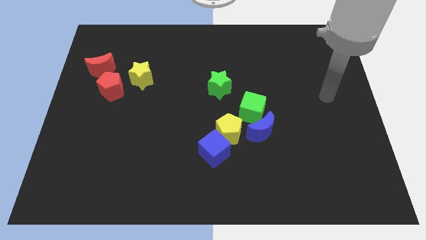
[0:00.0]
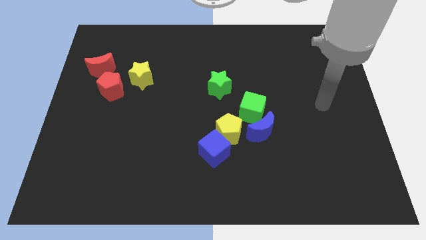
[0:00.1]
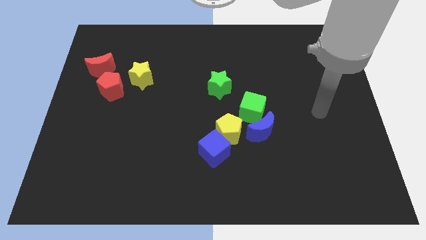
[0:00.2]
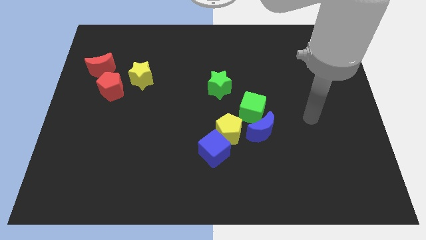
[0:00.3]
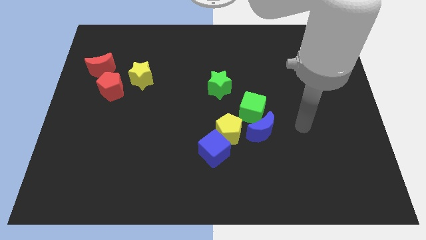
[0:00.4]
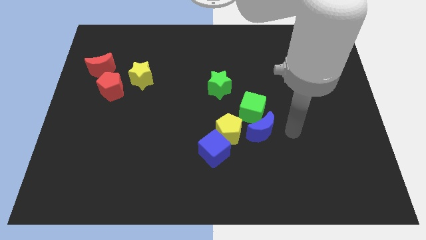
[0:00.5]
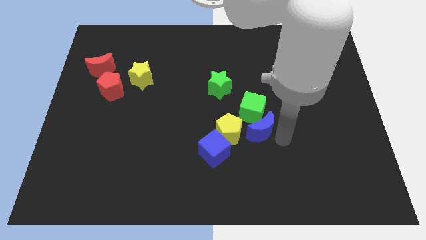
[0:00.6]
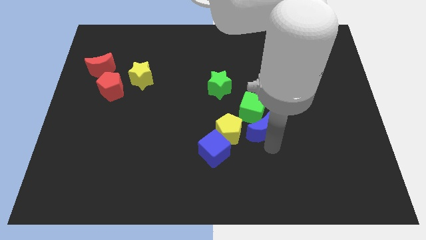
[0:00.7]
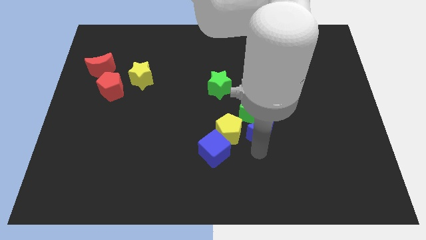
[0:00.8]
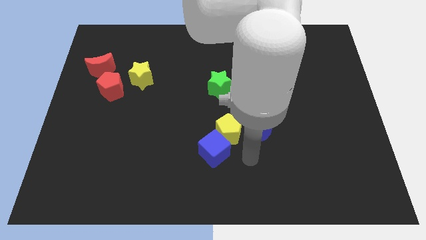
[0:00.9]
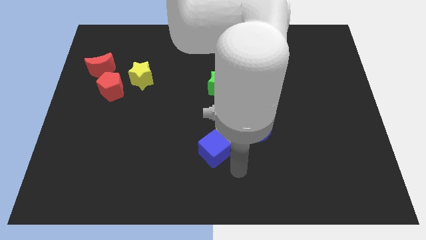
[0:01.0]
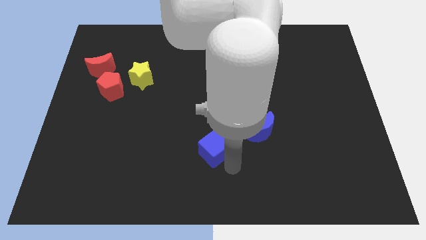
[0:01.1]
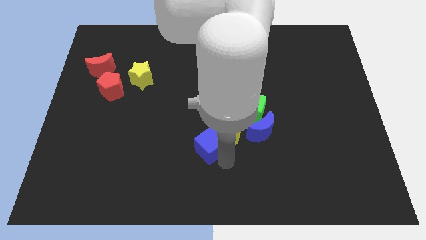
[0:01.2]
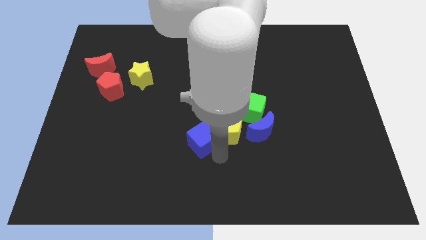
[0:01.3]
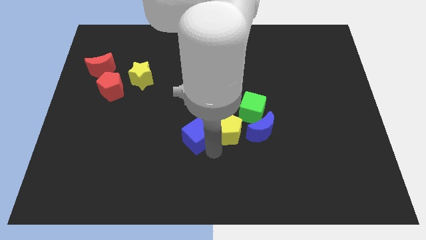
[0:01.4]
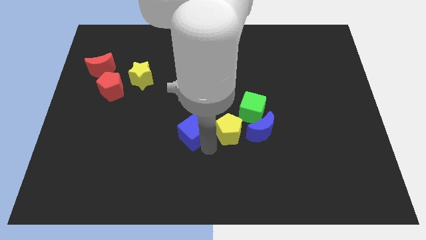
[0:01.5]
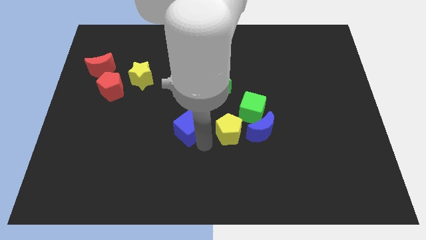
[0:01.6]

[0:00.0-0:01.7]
slightly slide the blue cube upwards and then to the left

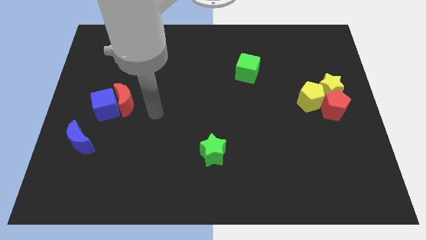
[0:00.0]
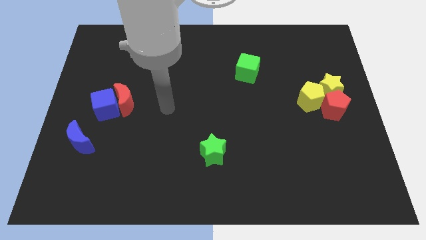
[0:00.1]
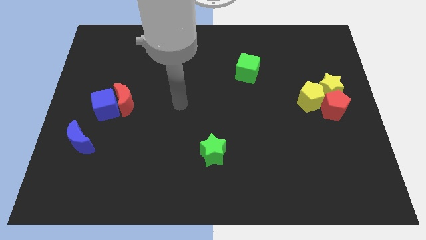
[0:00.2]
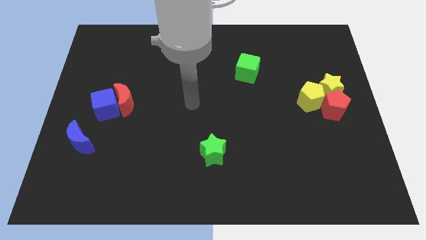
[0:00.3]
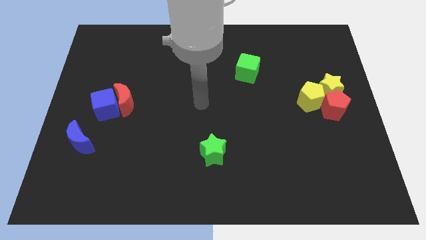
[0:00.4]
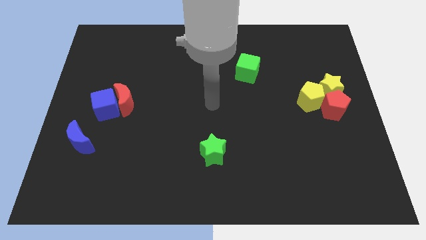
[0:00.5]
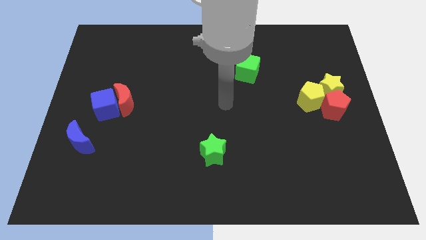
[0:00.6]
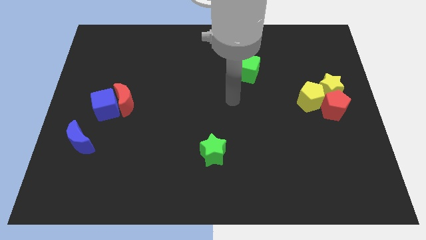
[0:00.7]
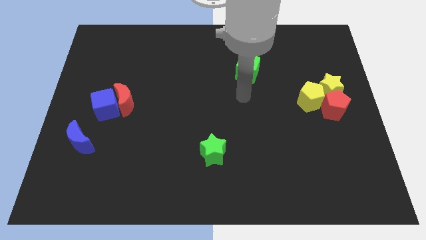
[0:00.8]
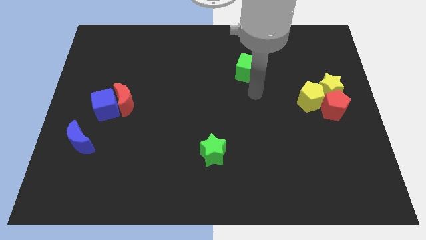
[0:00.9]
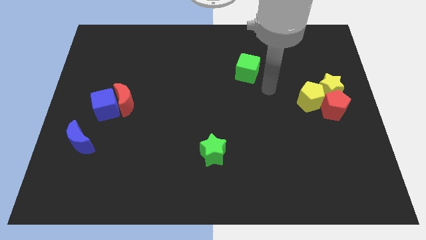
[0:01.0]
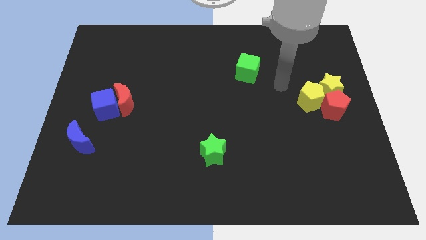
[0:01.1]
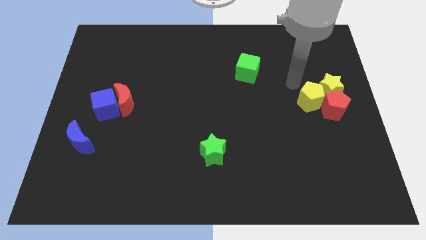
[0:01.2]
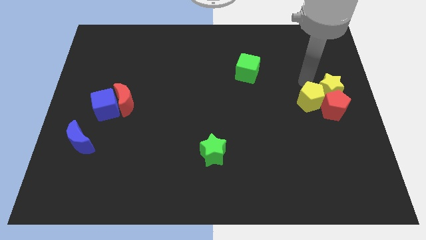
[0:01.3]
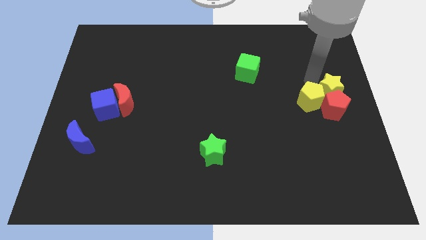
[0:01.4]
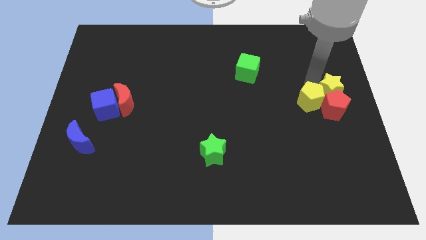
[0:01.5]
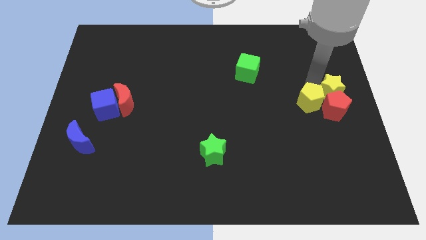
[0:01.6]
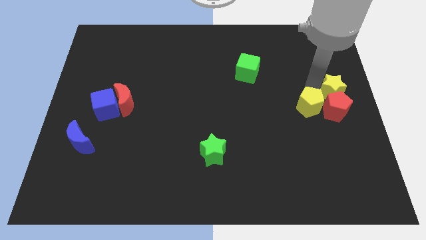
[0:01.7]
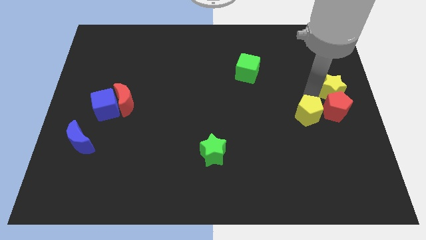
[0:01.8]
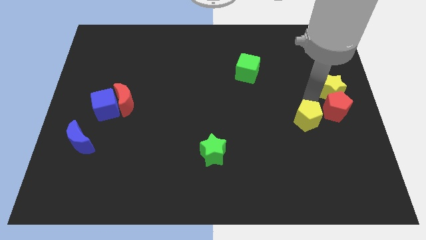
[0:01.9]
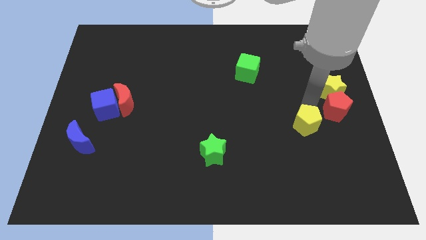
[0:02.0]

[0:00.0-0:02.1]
slide the yellow pentagon a little bit downwards

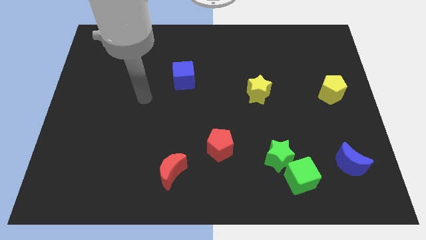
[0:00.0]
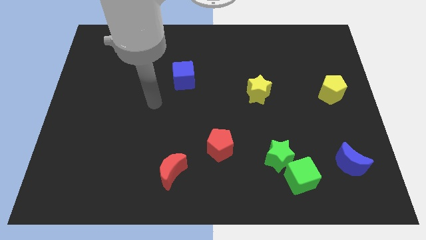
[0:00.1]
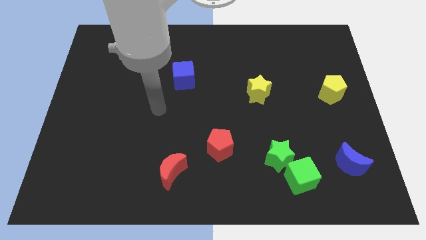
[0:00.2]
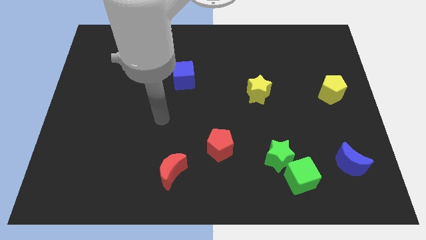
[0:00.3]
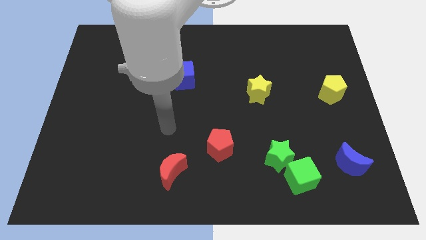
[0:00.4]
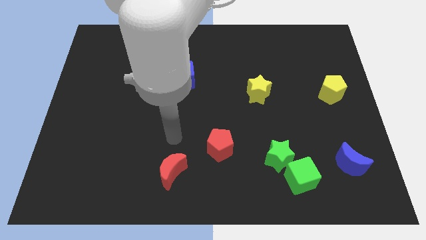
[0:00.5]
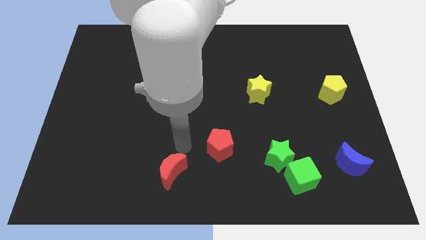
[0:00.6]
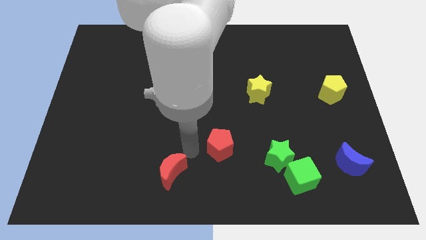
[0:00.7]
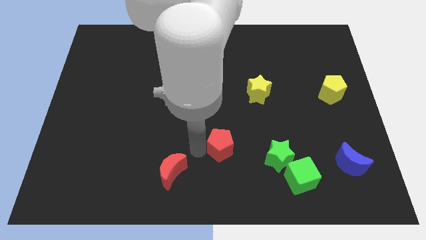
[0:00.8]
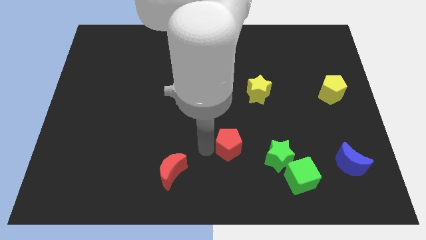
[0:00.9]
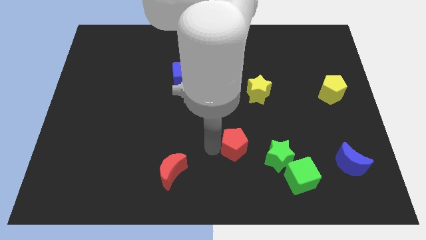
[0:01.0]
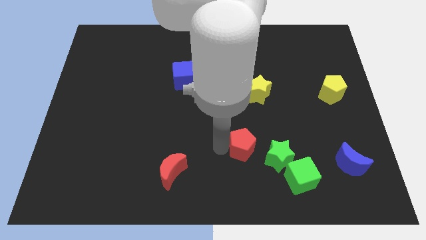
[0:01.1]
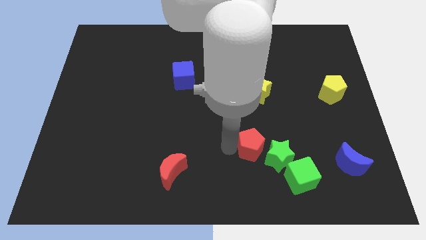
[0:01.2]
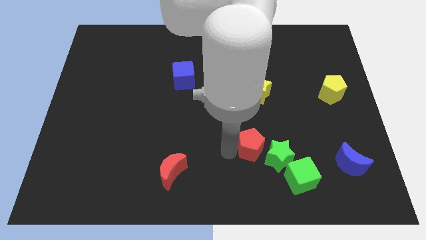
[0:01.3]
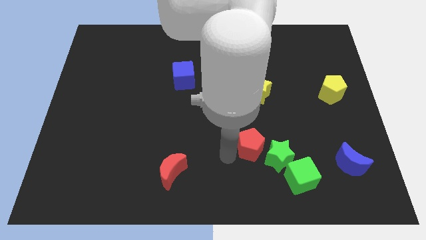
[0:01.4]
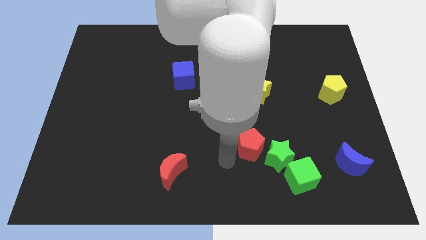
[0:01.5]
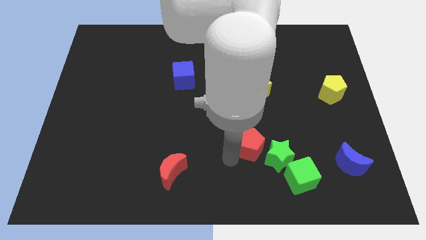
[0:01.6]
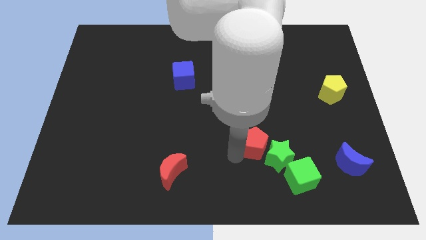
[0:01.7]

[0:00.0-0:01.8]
move the red pentagon a bit to the right

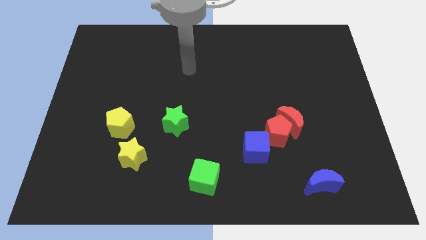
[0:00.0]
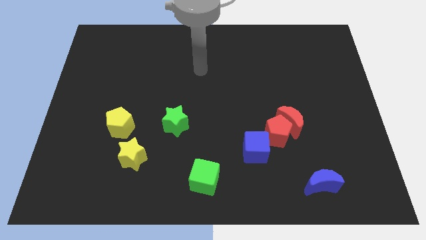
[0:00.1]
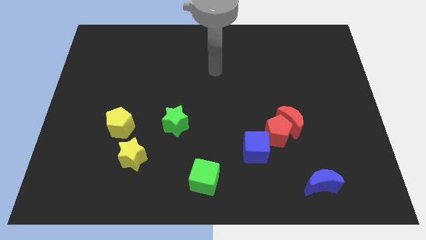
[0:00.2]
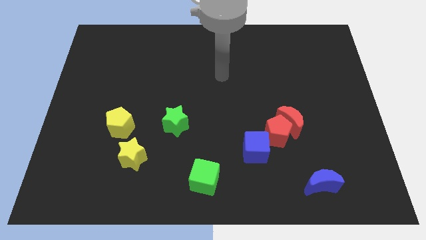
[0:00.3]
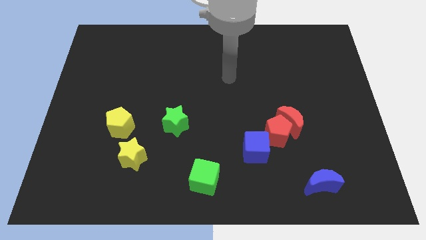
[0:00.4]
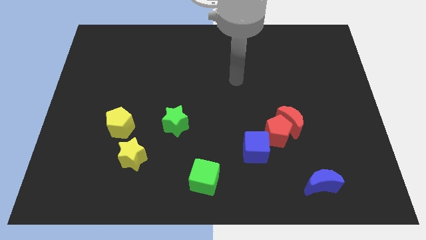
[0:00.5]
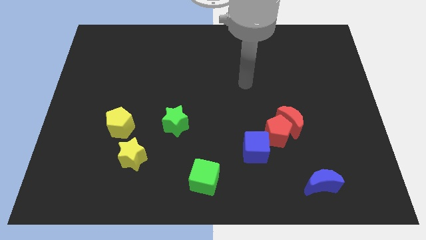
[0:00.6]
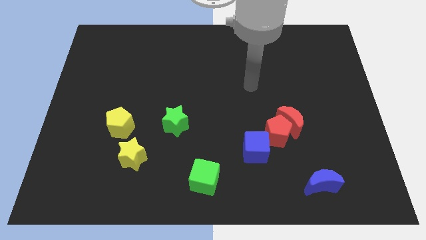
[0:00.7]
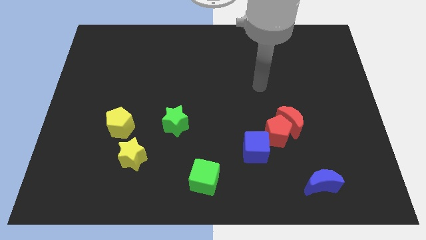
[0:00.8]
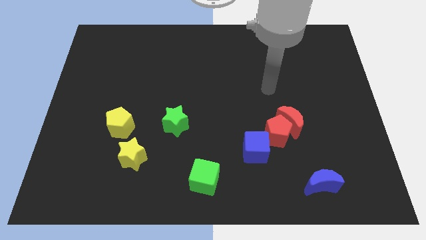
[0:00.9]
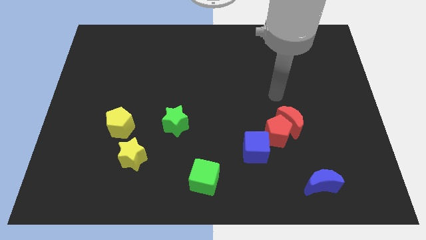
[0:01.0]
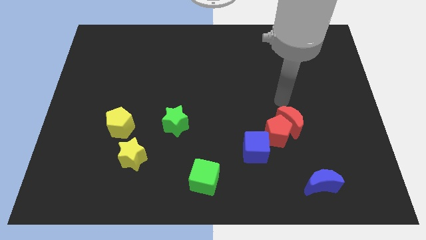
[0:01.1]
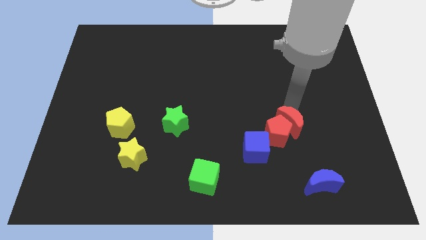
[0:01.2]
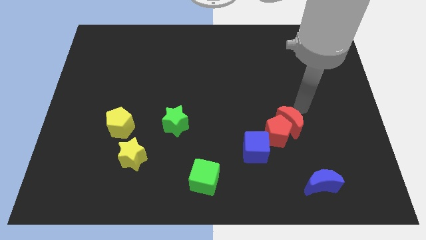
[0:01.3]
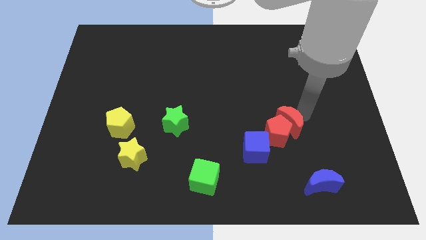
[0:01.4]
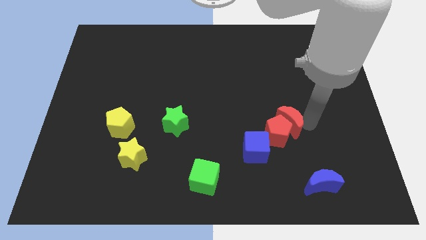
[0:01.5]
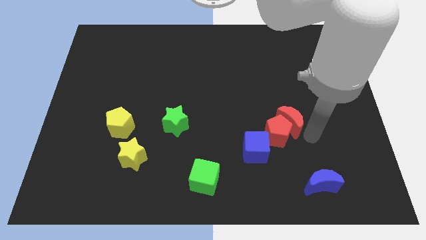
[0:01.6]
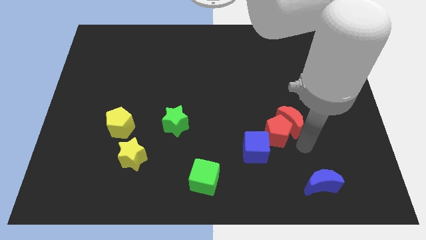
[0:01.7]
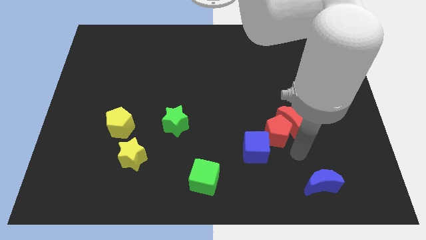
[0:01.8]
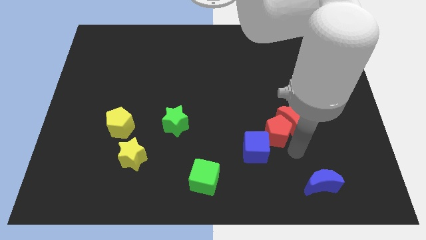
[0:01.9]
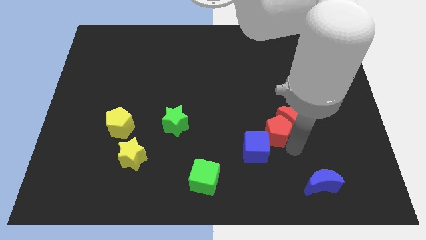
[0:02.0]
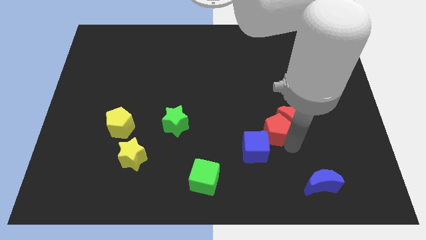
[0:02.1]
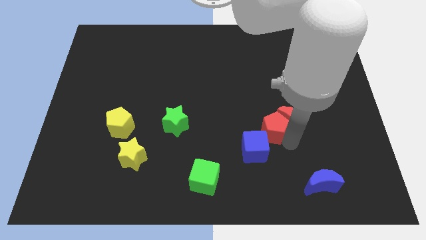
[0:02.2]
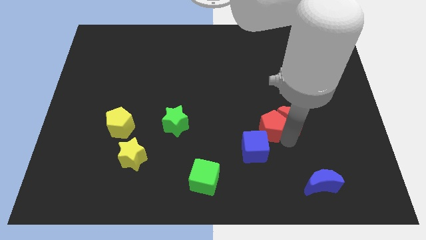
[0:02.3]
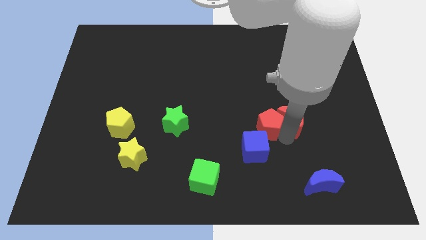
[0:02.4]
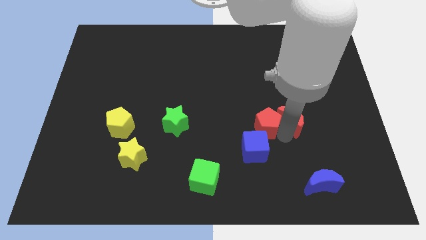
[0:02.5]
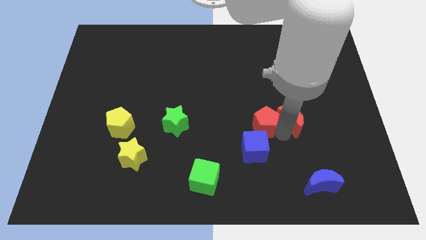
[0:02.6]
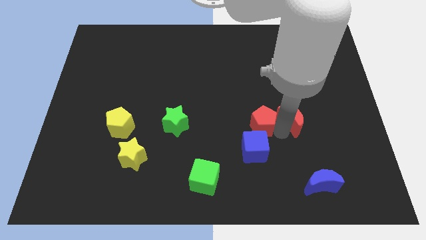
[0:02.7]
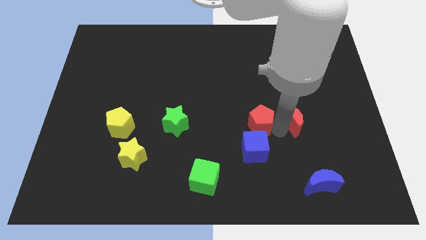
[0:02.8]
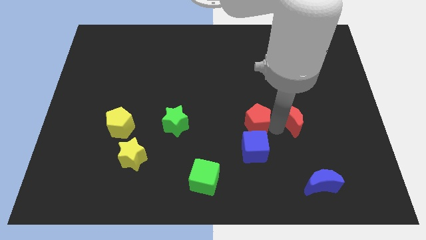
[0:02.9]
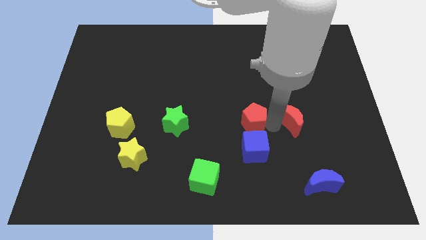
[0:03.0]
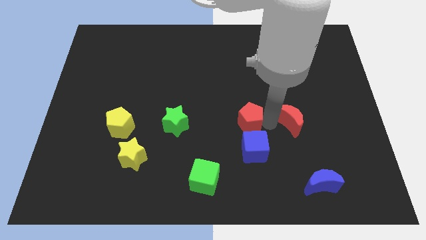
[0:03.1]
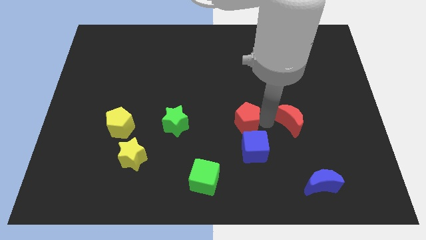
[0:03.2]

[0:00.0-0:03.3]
slightly push the red pentagon diagonally upwards and left
